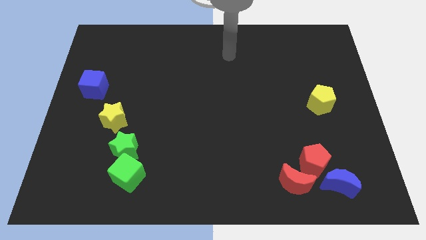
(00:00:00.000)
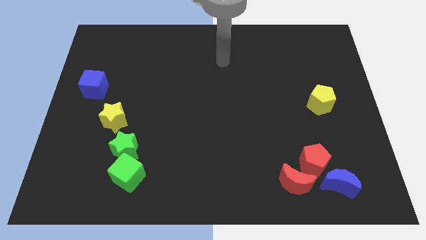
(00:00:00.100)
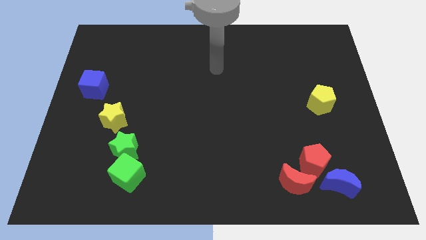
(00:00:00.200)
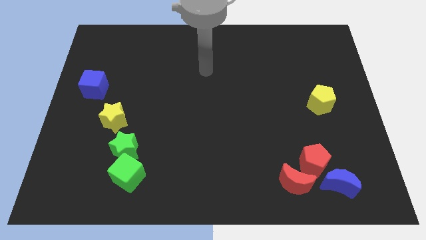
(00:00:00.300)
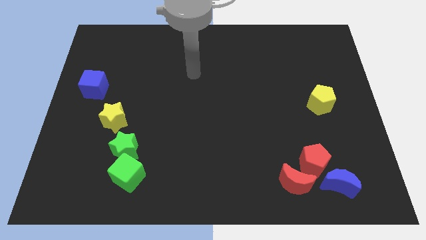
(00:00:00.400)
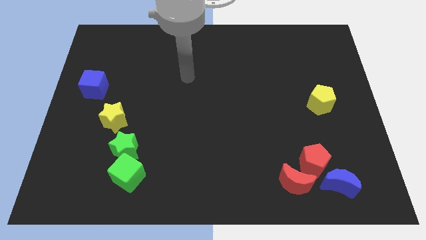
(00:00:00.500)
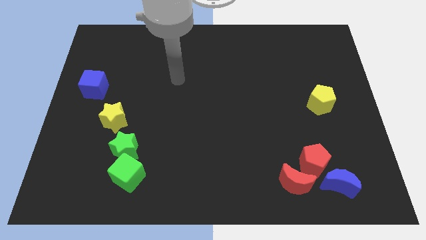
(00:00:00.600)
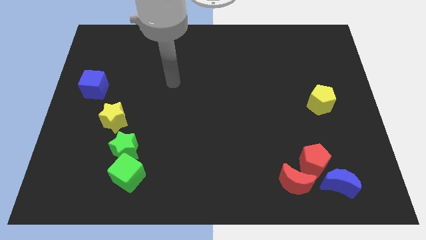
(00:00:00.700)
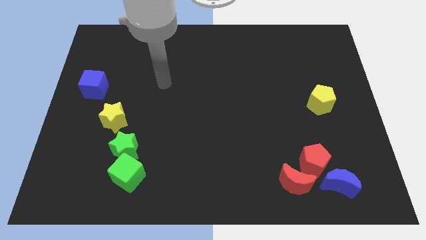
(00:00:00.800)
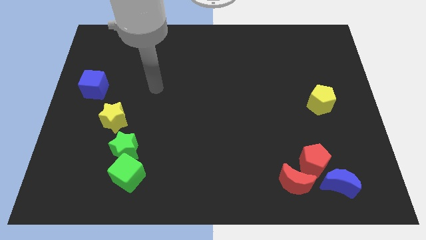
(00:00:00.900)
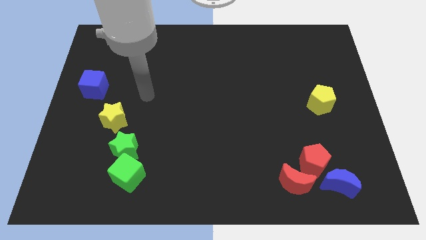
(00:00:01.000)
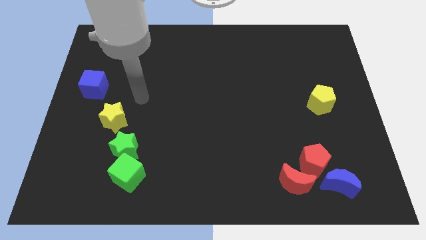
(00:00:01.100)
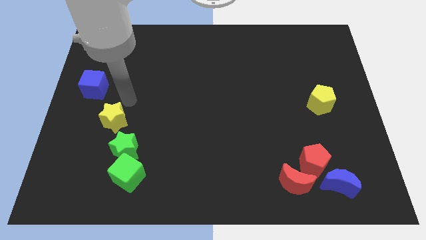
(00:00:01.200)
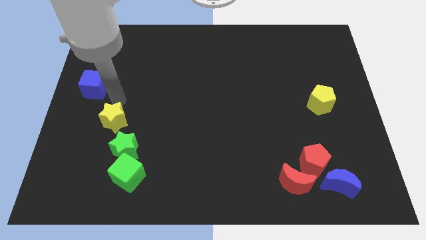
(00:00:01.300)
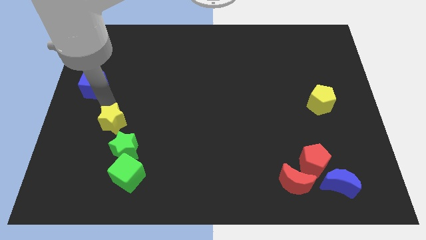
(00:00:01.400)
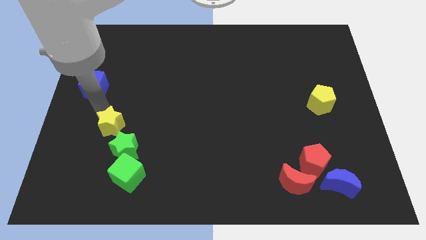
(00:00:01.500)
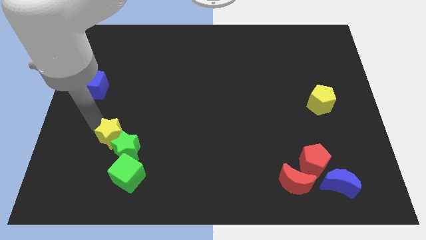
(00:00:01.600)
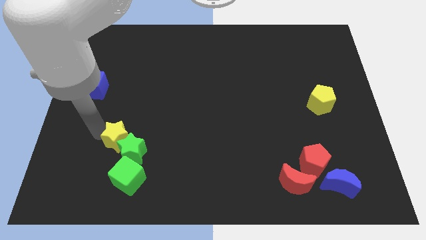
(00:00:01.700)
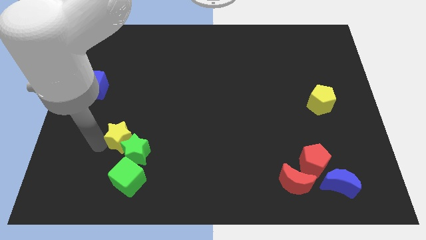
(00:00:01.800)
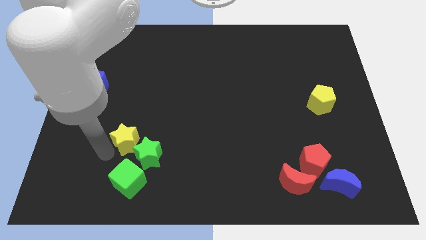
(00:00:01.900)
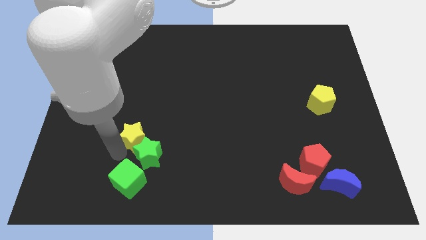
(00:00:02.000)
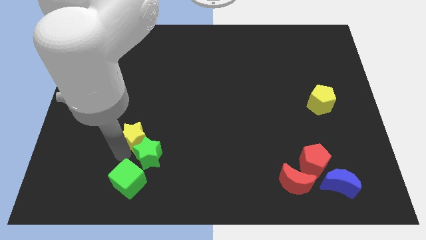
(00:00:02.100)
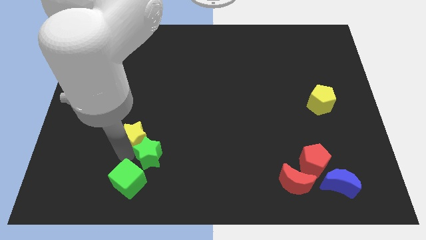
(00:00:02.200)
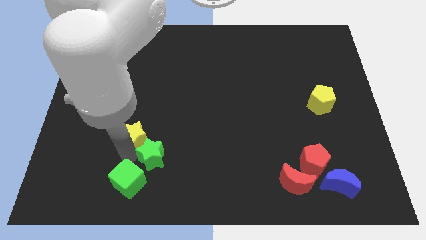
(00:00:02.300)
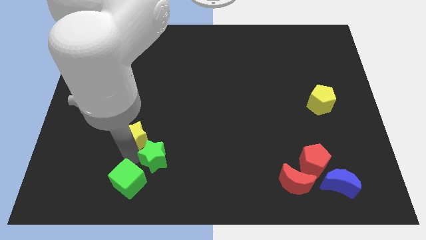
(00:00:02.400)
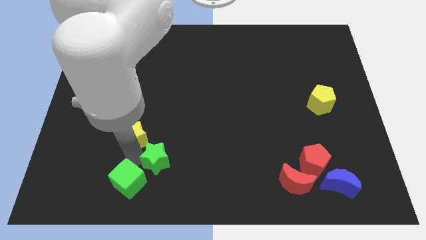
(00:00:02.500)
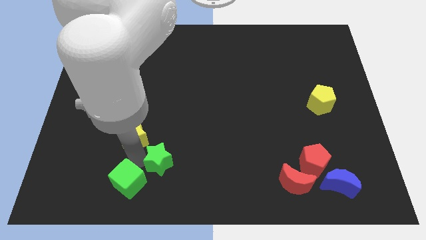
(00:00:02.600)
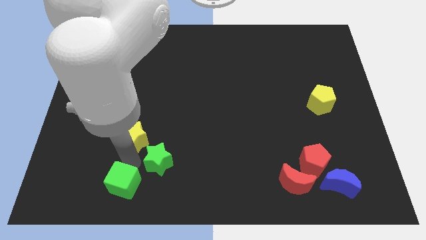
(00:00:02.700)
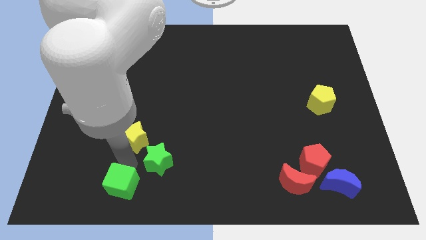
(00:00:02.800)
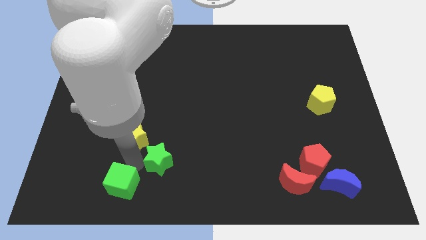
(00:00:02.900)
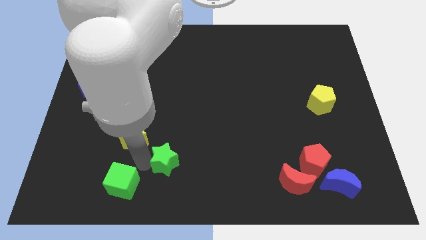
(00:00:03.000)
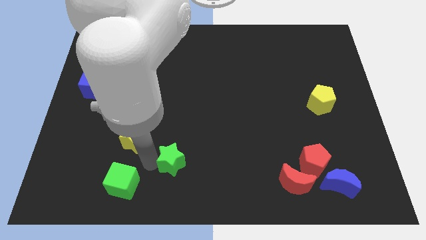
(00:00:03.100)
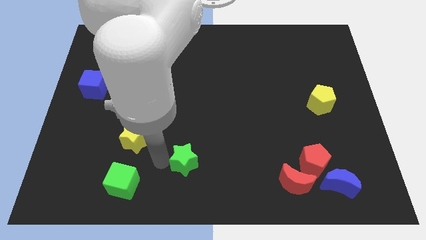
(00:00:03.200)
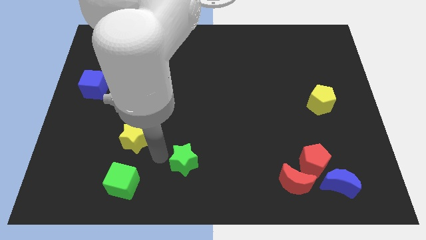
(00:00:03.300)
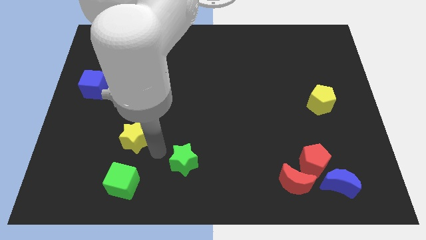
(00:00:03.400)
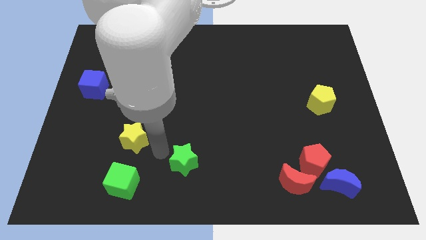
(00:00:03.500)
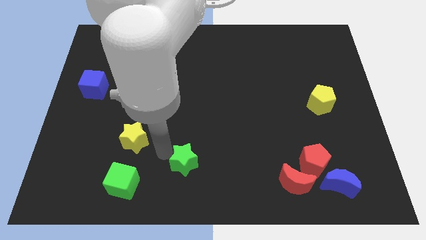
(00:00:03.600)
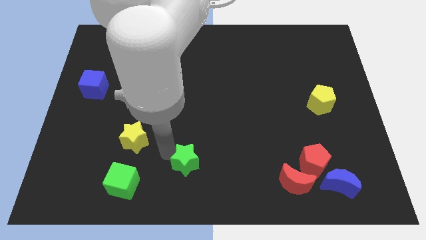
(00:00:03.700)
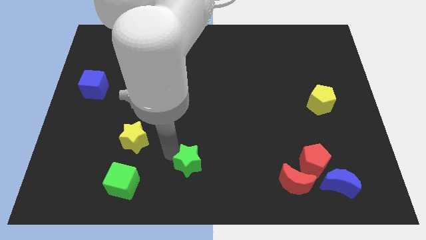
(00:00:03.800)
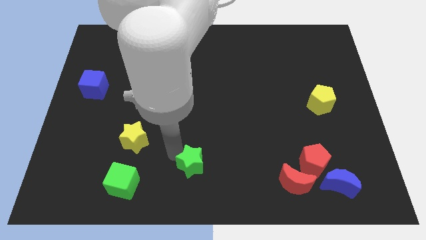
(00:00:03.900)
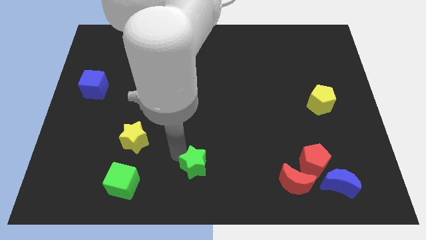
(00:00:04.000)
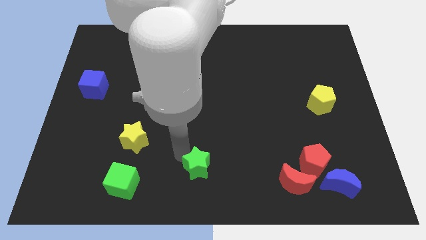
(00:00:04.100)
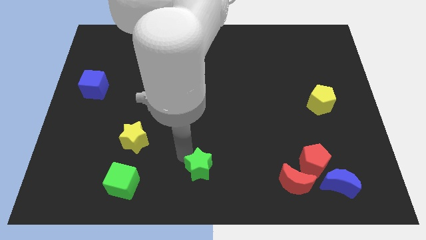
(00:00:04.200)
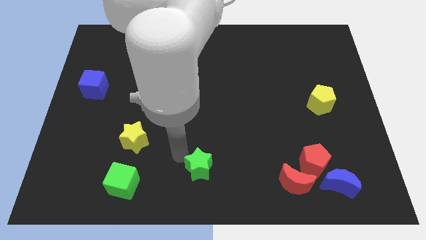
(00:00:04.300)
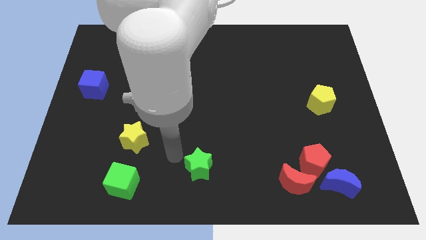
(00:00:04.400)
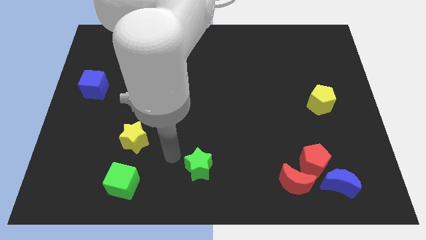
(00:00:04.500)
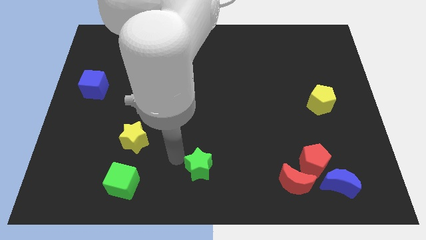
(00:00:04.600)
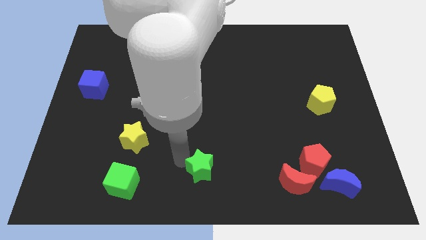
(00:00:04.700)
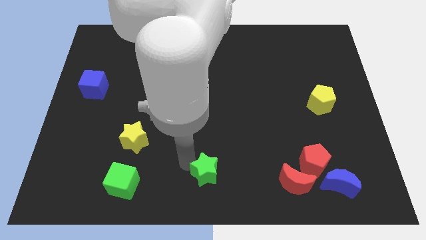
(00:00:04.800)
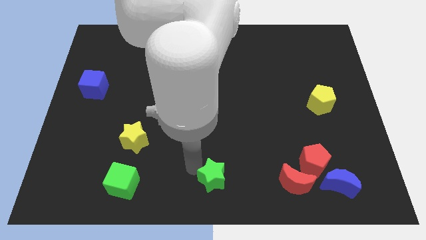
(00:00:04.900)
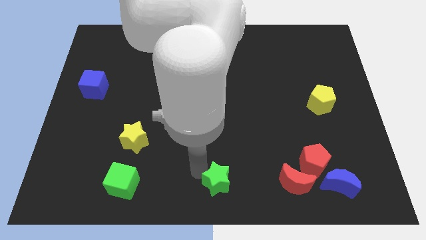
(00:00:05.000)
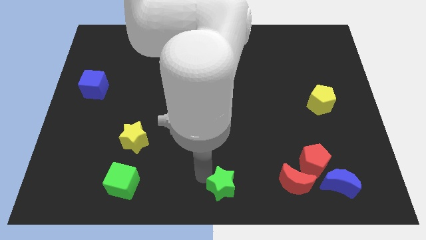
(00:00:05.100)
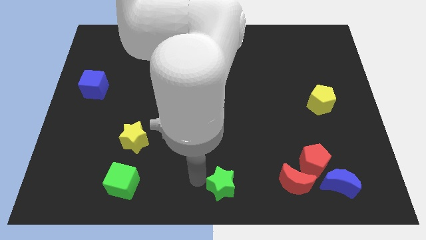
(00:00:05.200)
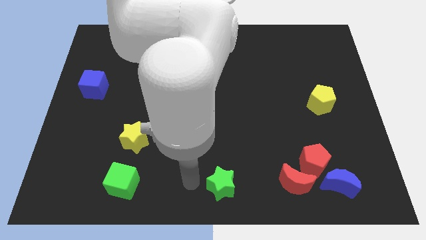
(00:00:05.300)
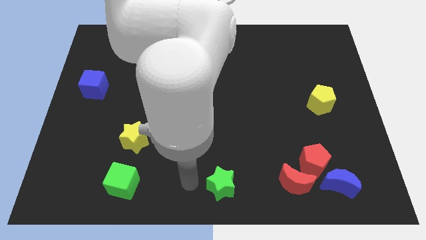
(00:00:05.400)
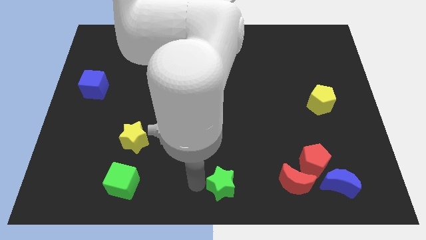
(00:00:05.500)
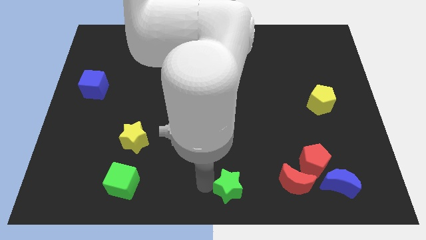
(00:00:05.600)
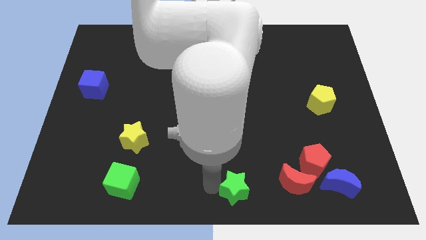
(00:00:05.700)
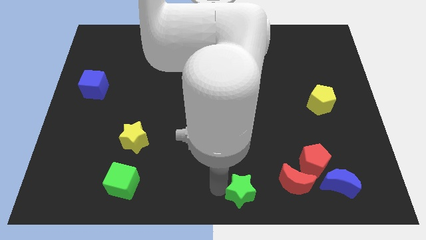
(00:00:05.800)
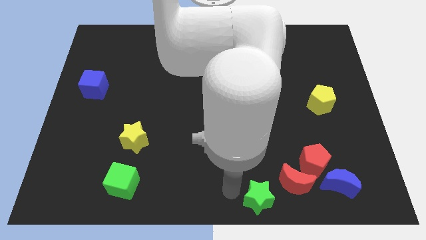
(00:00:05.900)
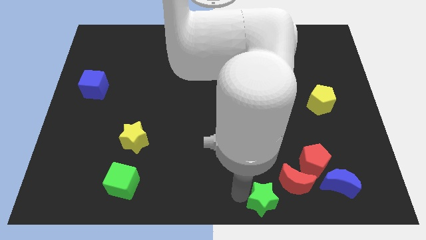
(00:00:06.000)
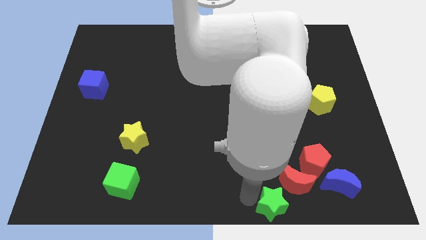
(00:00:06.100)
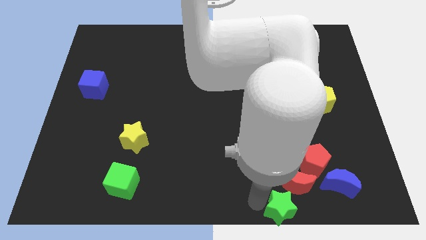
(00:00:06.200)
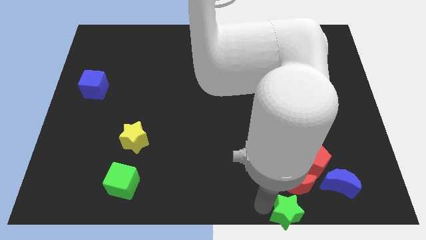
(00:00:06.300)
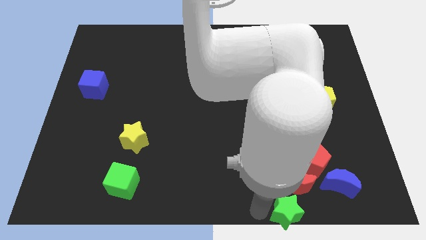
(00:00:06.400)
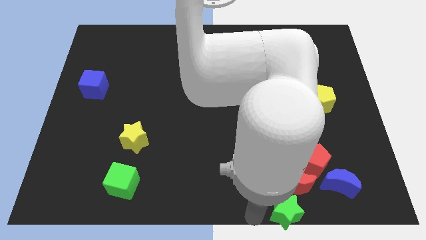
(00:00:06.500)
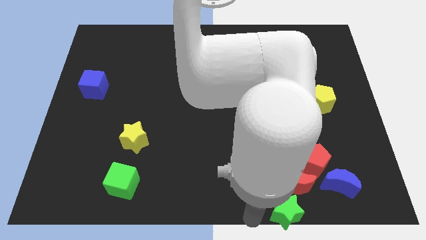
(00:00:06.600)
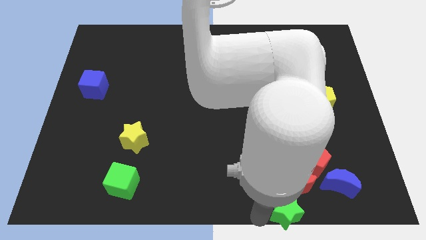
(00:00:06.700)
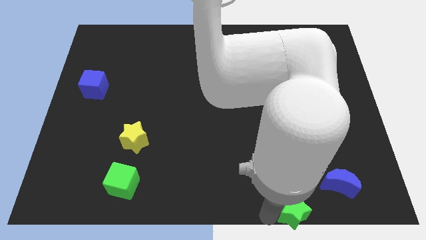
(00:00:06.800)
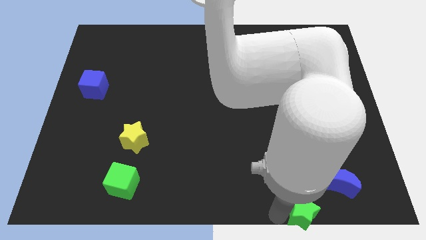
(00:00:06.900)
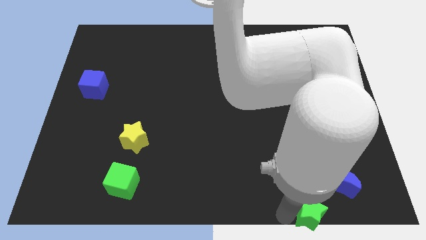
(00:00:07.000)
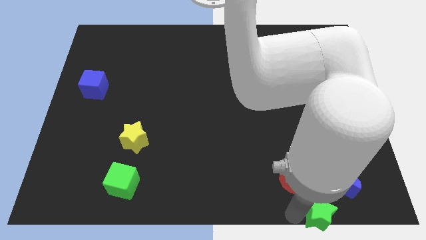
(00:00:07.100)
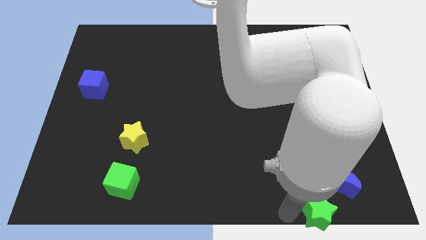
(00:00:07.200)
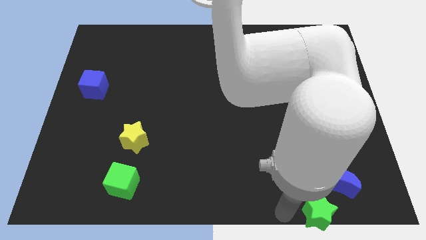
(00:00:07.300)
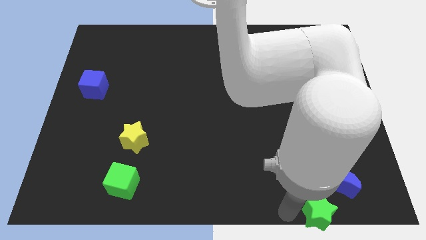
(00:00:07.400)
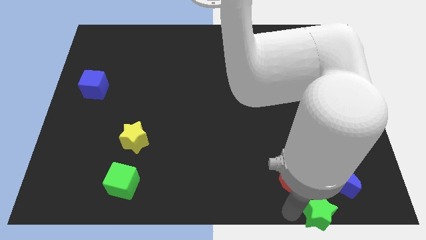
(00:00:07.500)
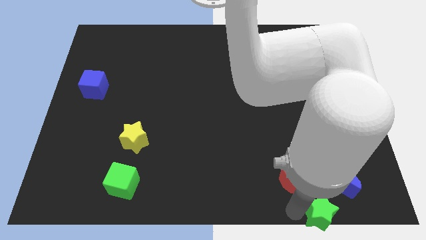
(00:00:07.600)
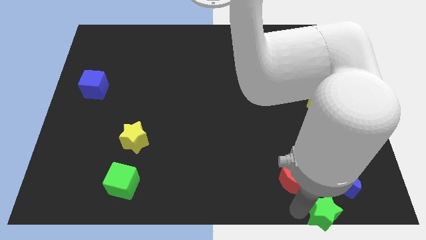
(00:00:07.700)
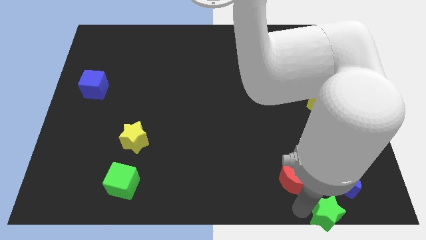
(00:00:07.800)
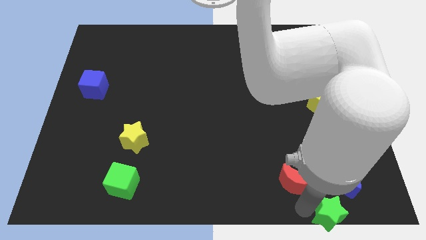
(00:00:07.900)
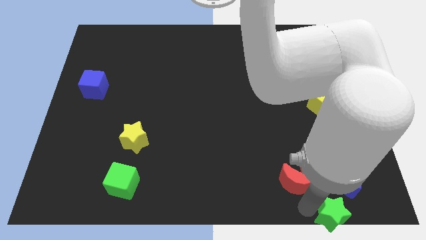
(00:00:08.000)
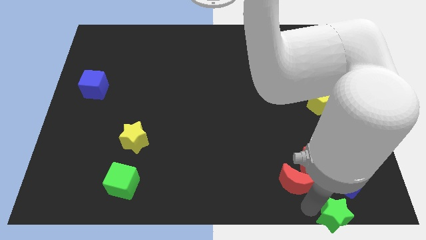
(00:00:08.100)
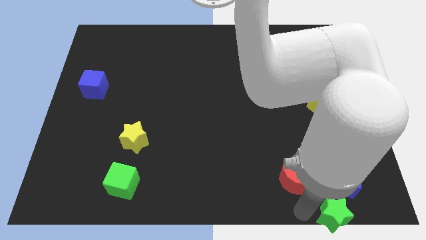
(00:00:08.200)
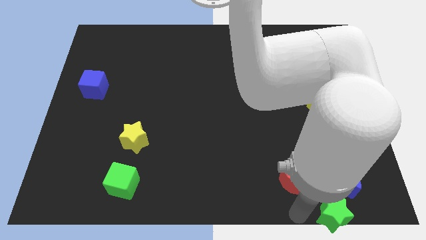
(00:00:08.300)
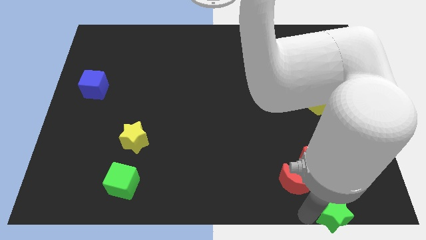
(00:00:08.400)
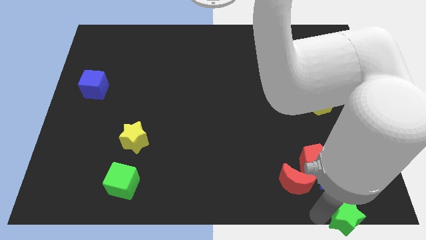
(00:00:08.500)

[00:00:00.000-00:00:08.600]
push the green star to the lower right corner
